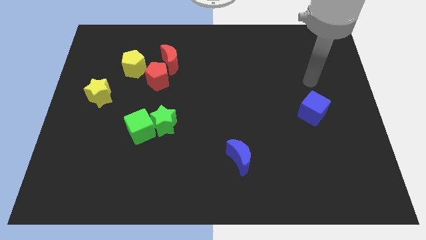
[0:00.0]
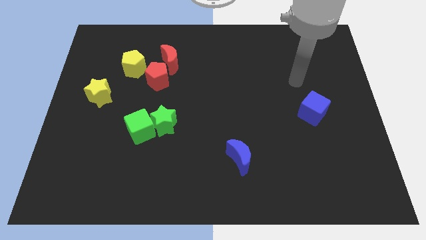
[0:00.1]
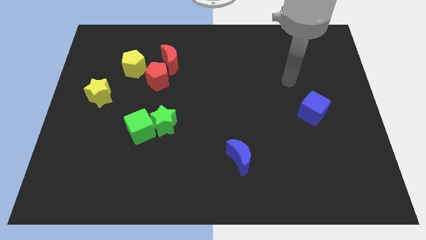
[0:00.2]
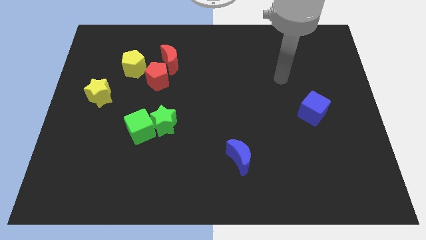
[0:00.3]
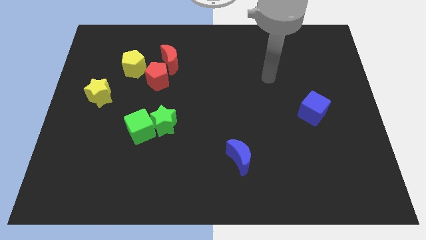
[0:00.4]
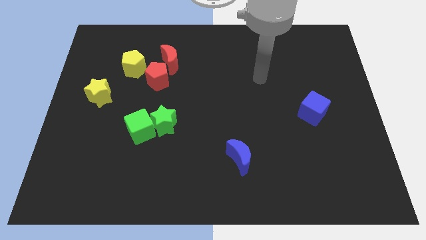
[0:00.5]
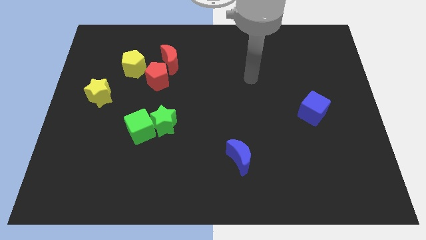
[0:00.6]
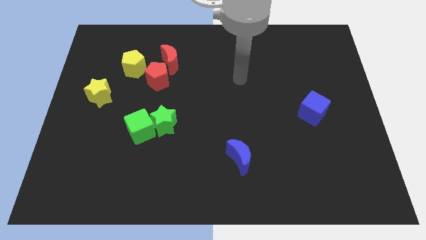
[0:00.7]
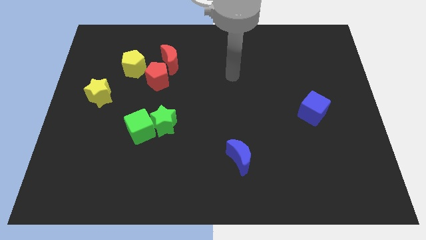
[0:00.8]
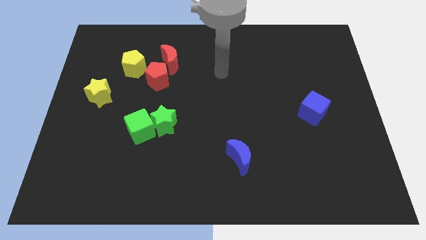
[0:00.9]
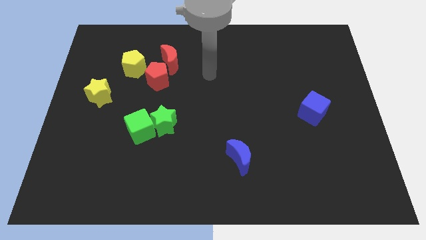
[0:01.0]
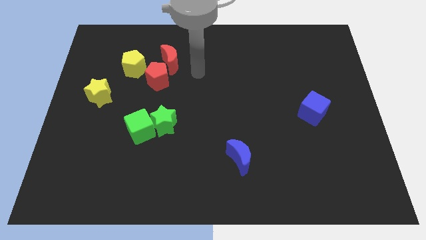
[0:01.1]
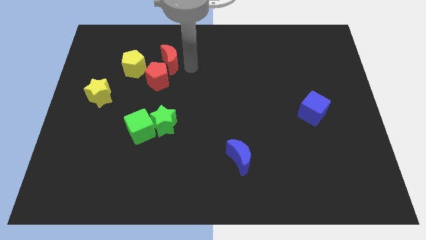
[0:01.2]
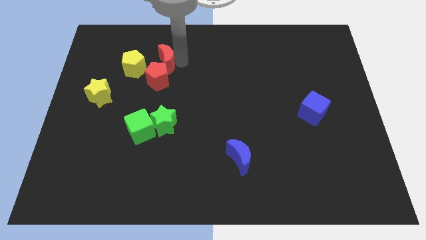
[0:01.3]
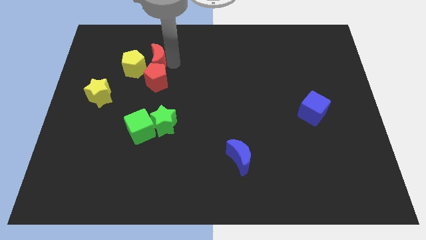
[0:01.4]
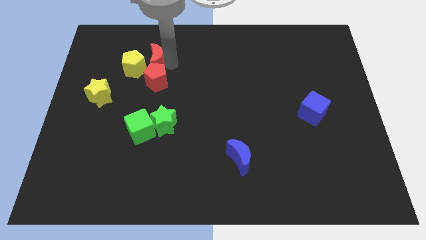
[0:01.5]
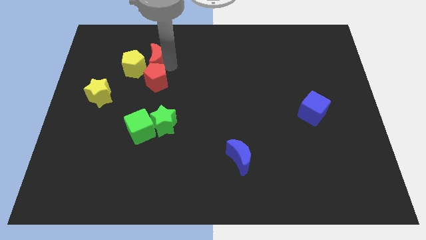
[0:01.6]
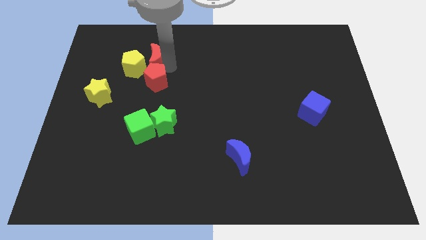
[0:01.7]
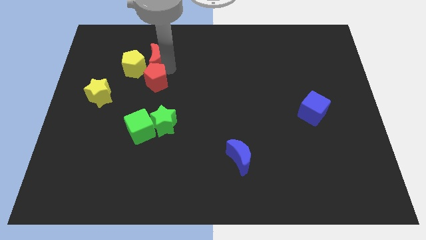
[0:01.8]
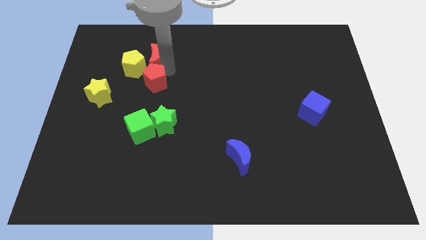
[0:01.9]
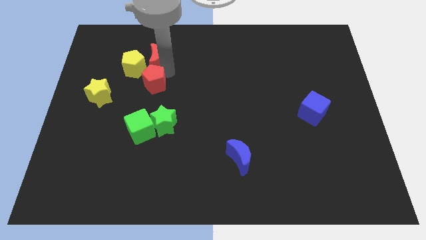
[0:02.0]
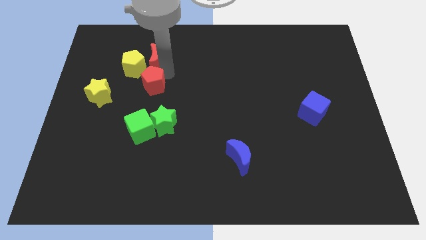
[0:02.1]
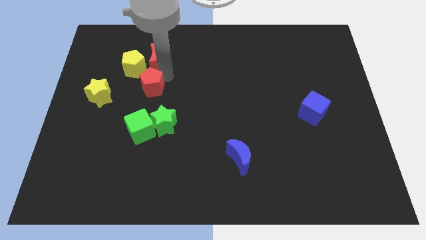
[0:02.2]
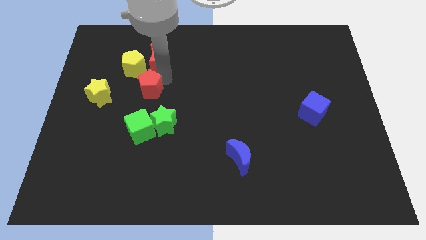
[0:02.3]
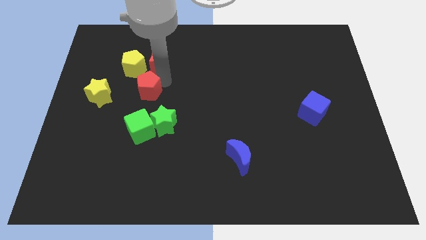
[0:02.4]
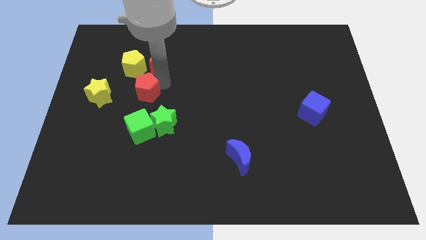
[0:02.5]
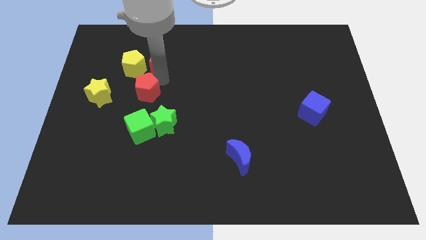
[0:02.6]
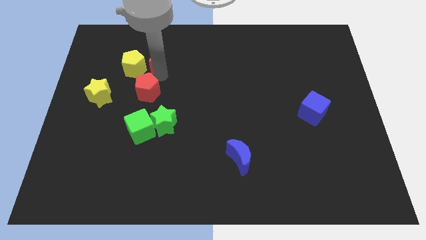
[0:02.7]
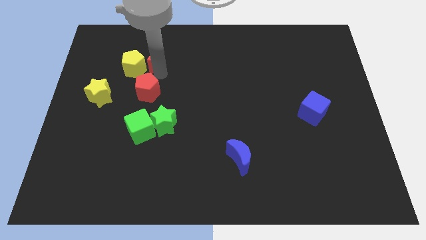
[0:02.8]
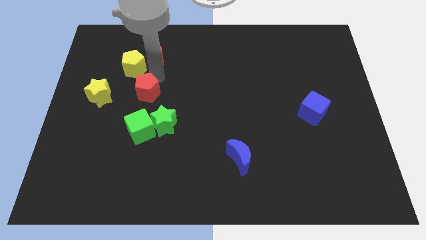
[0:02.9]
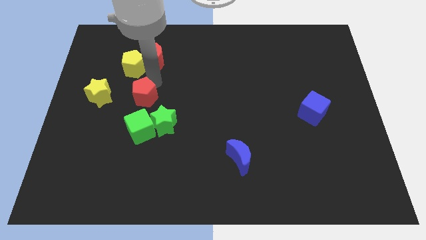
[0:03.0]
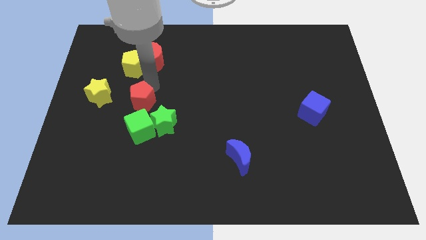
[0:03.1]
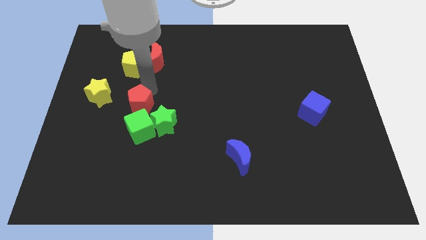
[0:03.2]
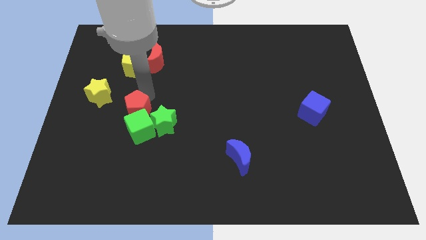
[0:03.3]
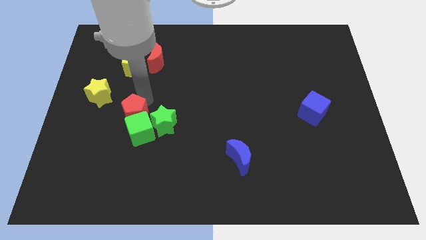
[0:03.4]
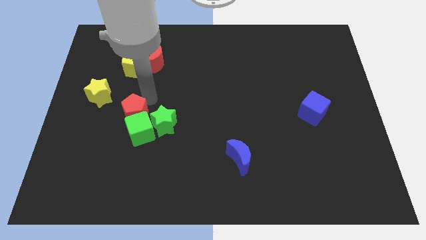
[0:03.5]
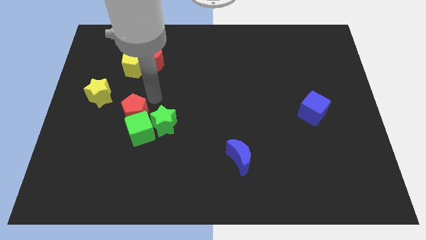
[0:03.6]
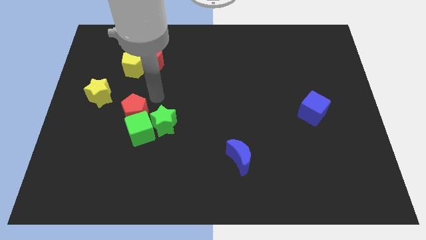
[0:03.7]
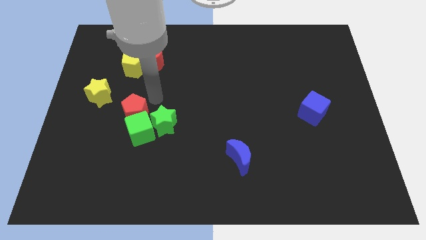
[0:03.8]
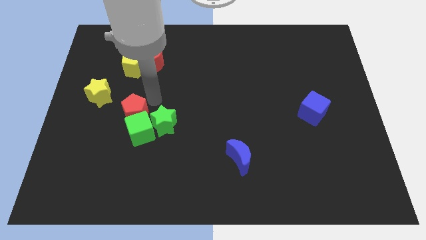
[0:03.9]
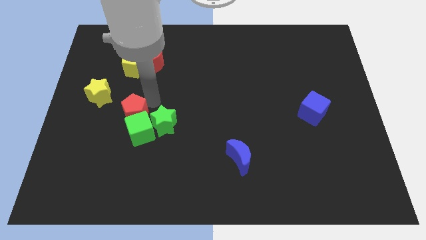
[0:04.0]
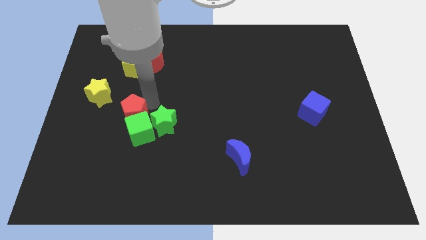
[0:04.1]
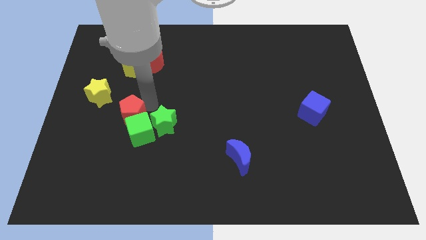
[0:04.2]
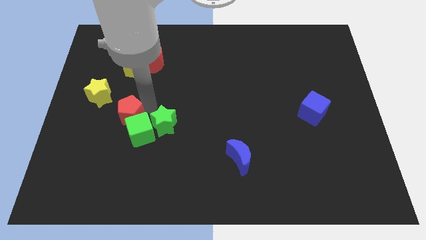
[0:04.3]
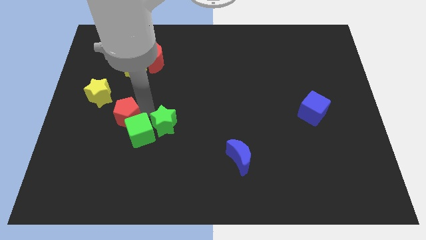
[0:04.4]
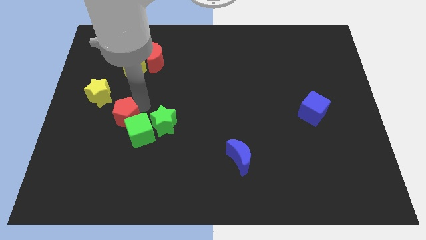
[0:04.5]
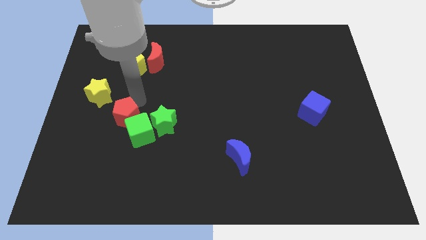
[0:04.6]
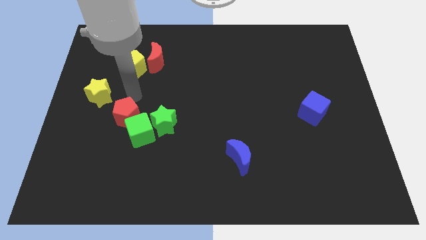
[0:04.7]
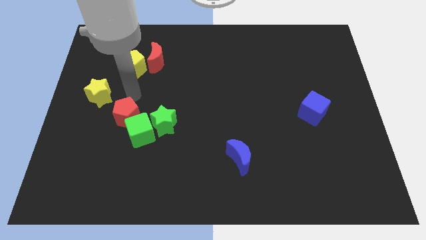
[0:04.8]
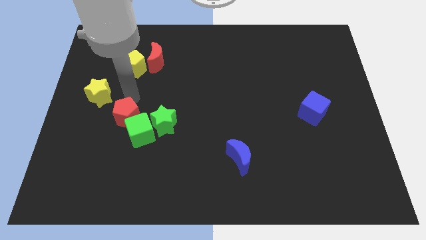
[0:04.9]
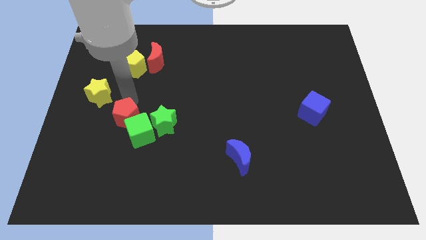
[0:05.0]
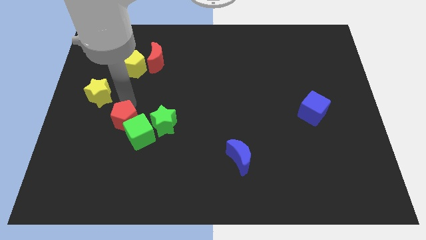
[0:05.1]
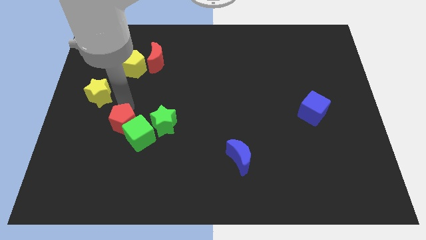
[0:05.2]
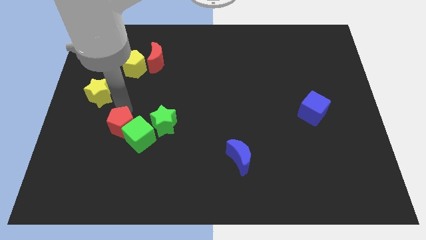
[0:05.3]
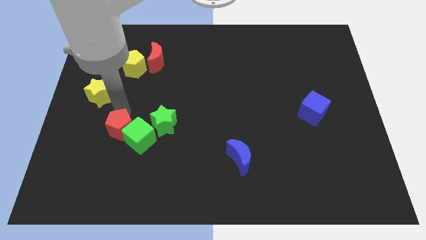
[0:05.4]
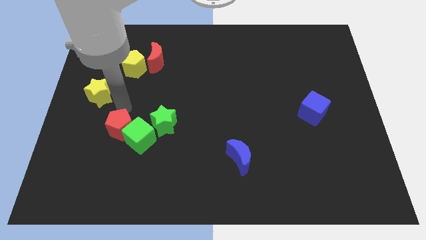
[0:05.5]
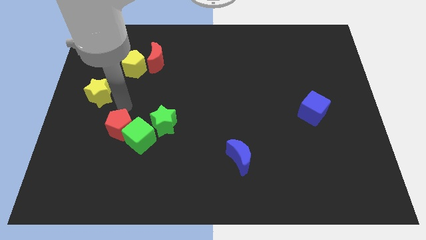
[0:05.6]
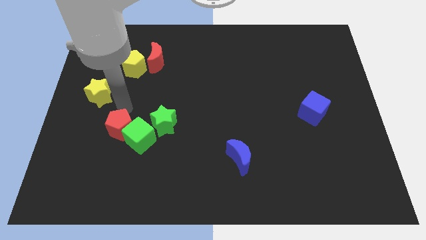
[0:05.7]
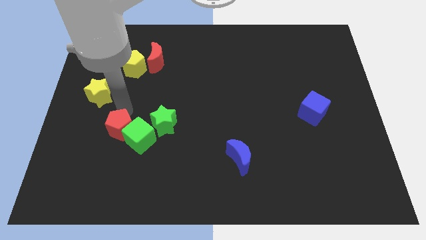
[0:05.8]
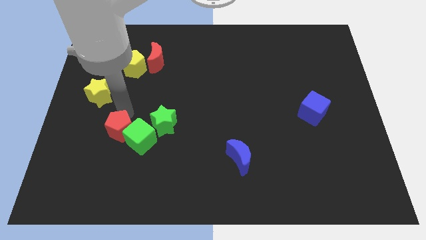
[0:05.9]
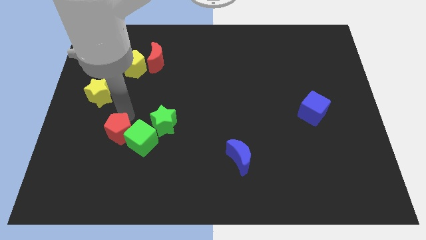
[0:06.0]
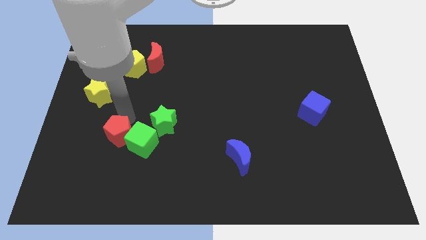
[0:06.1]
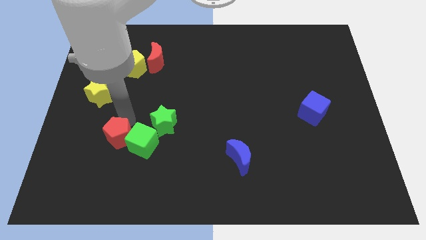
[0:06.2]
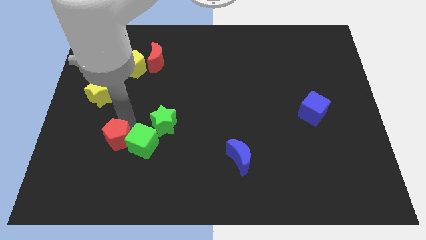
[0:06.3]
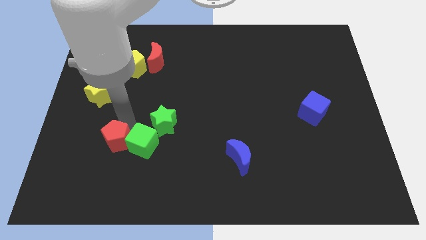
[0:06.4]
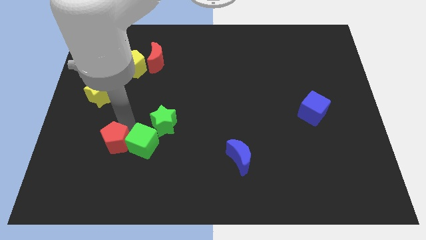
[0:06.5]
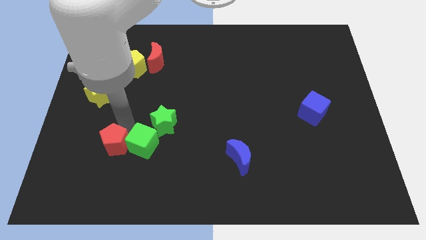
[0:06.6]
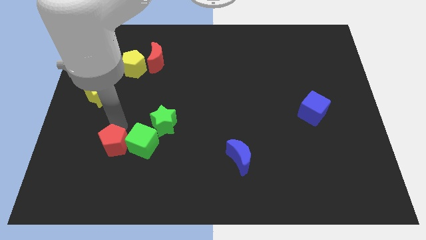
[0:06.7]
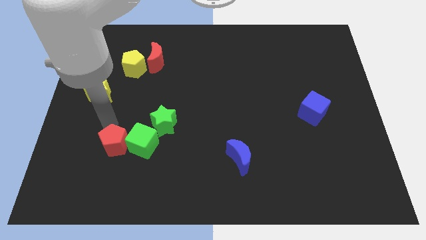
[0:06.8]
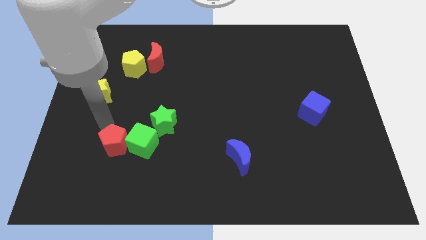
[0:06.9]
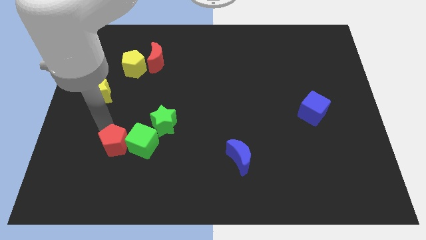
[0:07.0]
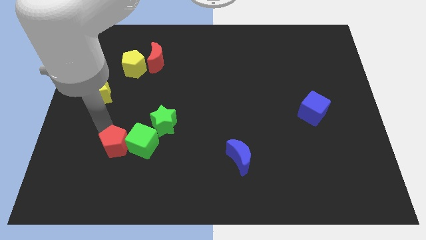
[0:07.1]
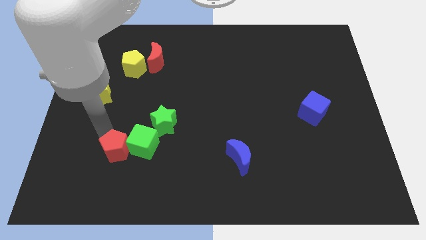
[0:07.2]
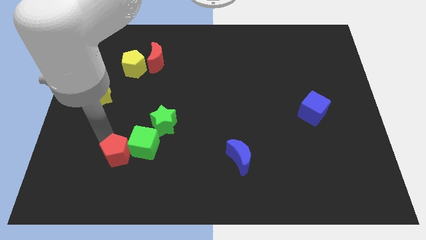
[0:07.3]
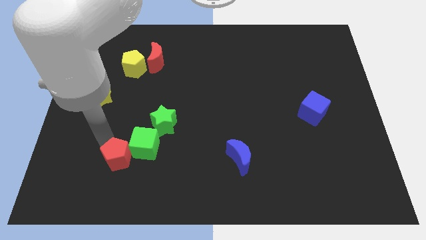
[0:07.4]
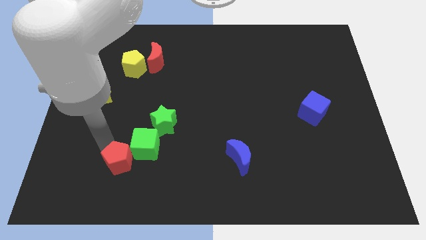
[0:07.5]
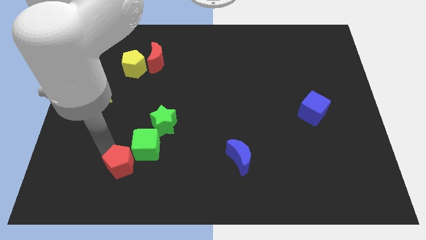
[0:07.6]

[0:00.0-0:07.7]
move the red pentagon below the green cube
